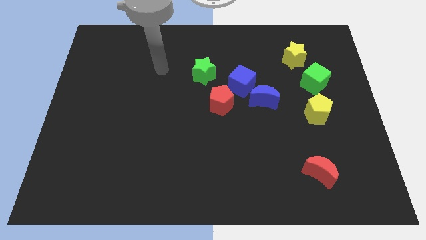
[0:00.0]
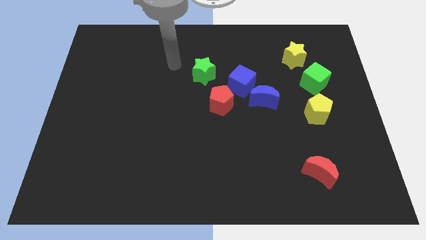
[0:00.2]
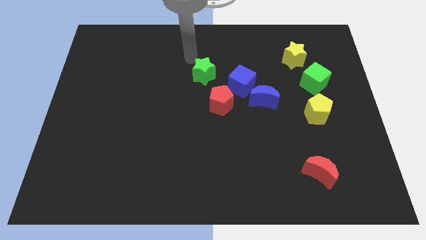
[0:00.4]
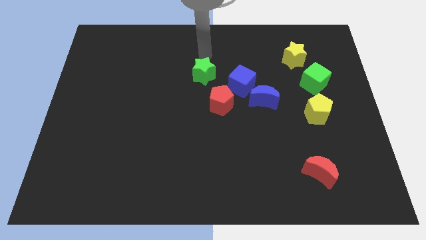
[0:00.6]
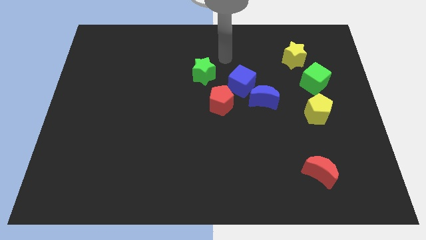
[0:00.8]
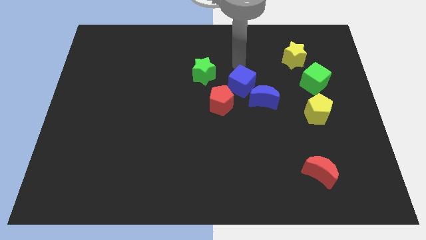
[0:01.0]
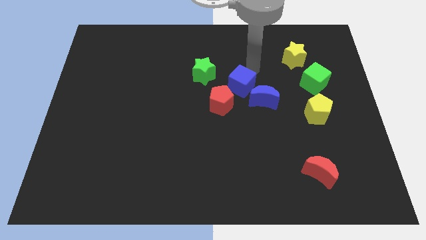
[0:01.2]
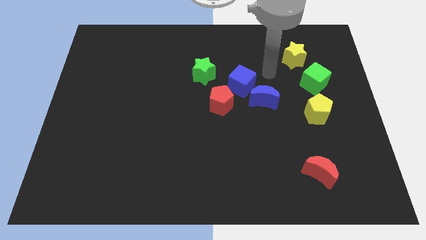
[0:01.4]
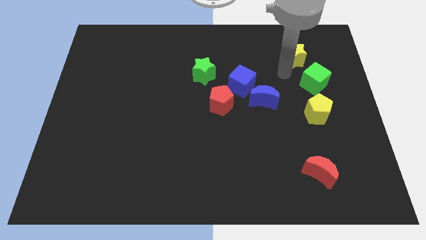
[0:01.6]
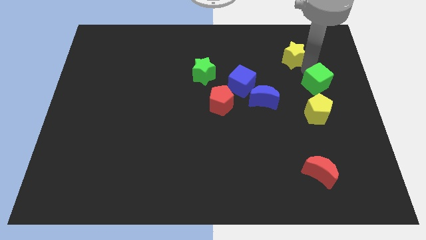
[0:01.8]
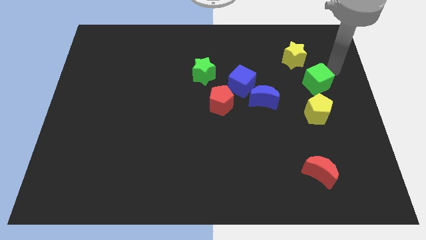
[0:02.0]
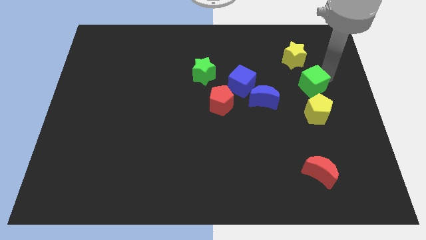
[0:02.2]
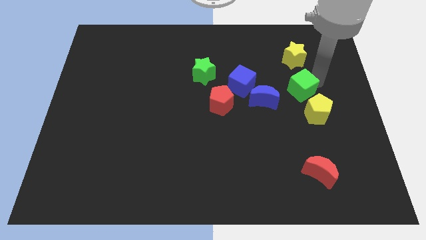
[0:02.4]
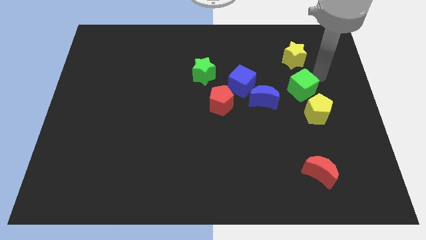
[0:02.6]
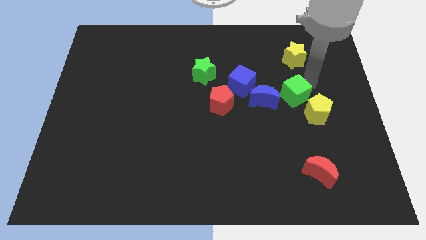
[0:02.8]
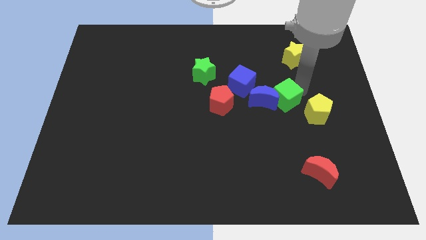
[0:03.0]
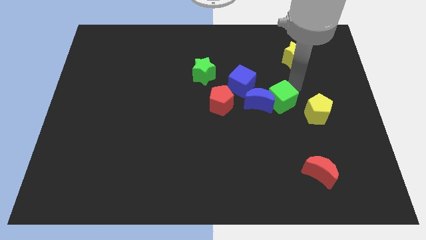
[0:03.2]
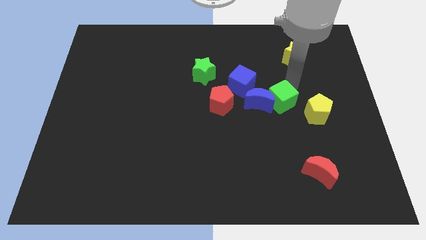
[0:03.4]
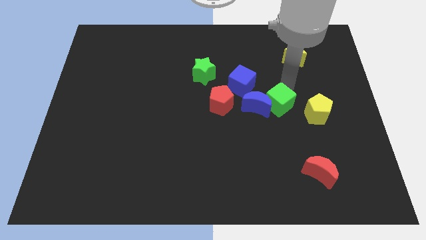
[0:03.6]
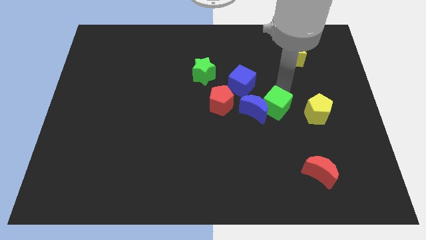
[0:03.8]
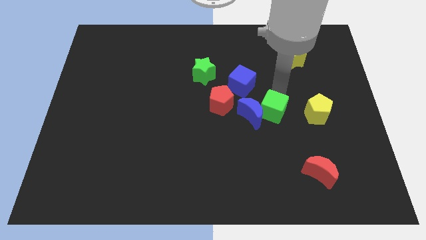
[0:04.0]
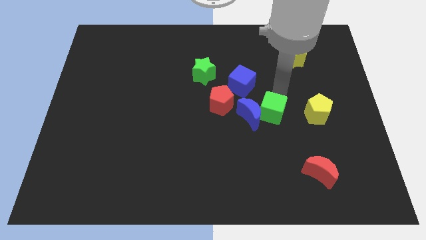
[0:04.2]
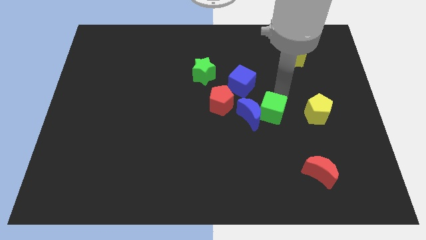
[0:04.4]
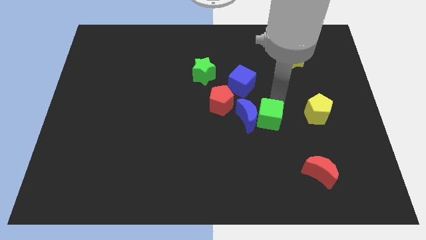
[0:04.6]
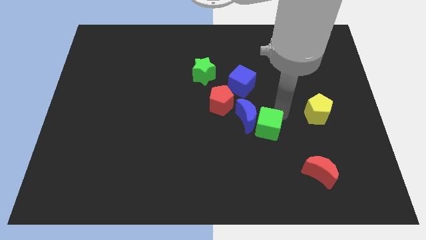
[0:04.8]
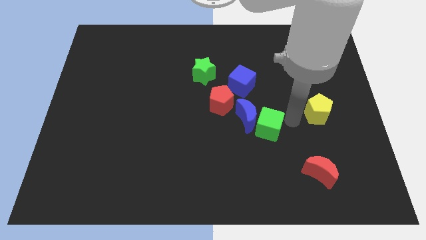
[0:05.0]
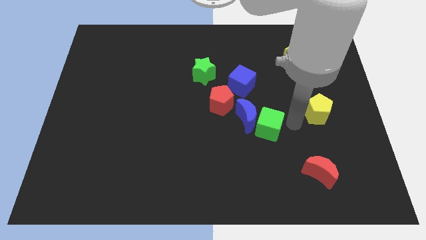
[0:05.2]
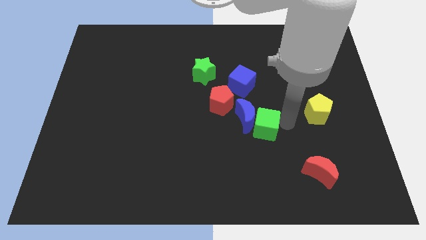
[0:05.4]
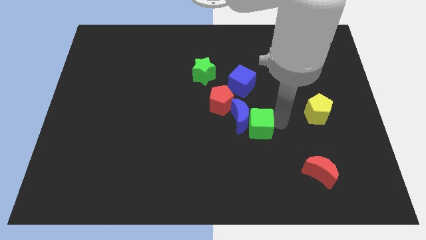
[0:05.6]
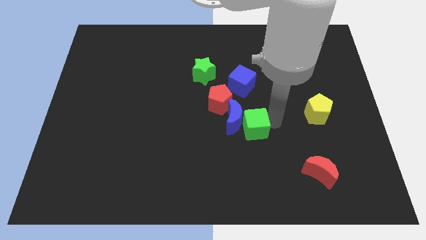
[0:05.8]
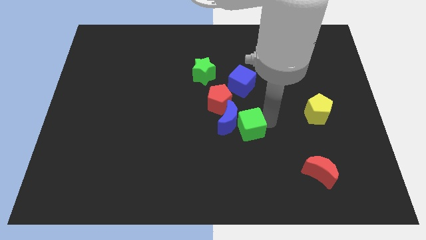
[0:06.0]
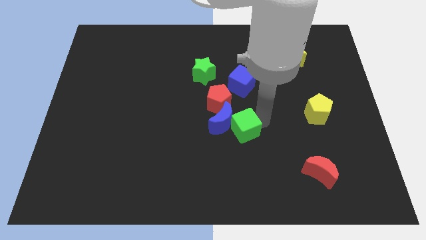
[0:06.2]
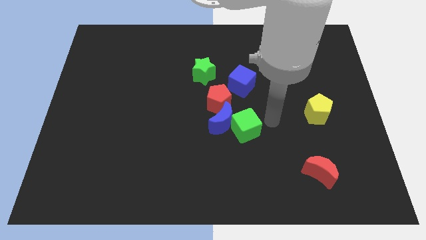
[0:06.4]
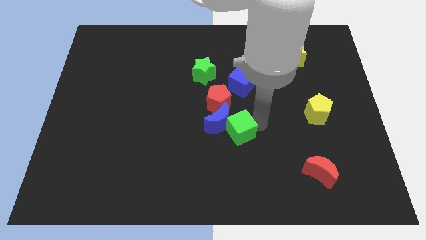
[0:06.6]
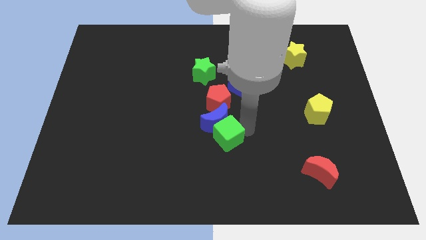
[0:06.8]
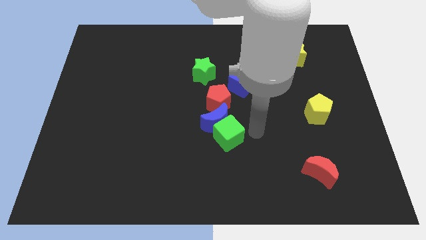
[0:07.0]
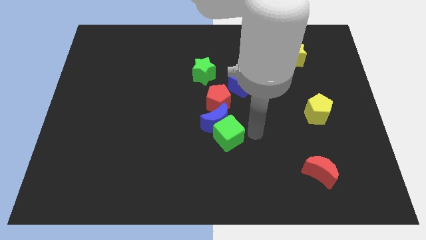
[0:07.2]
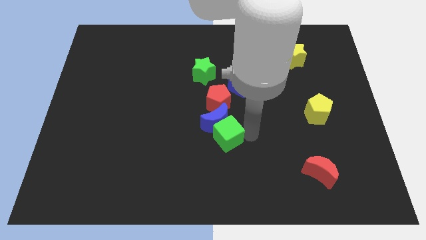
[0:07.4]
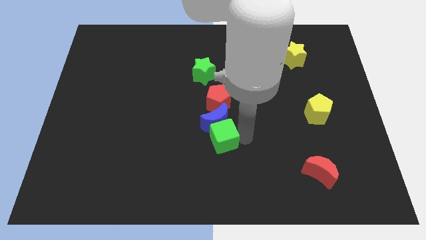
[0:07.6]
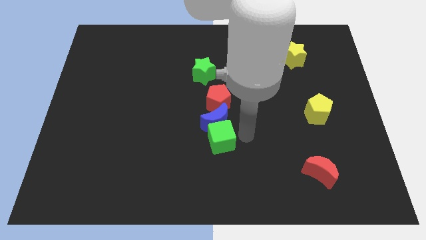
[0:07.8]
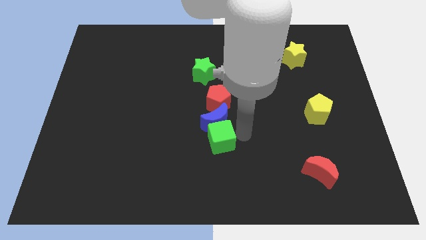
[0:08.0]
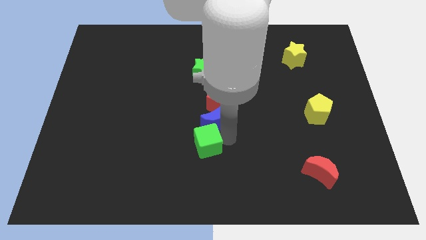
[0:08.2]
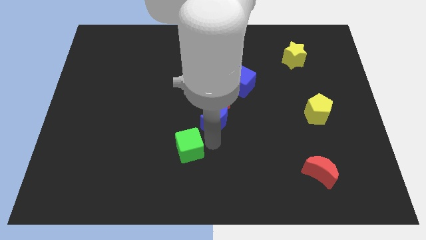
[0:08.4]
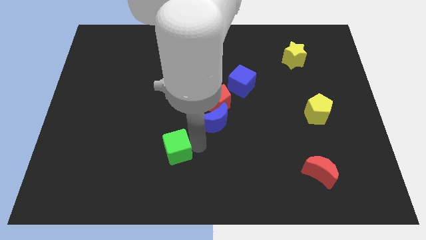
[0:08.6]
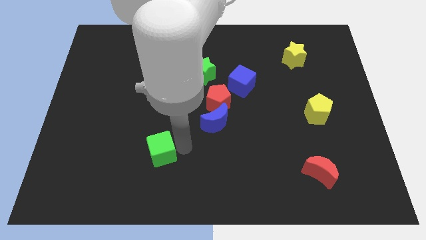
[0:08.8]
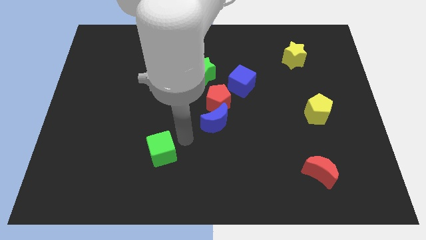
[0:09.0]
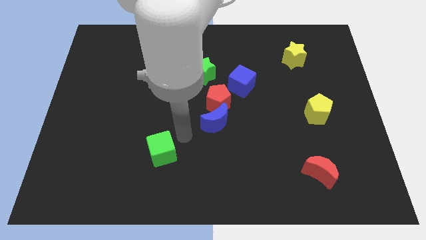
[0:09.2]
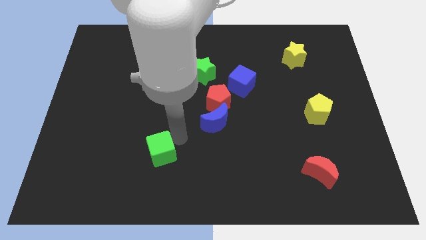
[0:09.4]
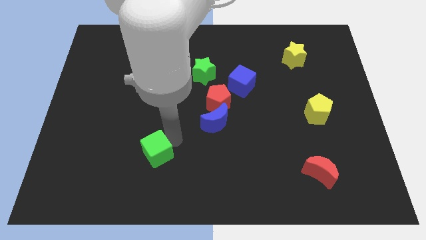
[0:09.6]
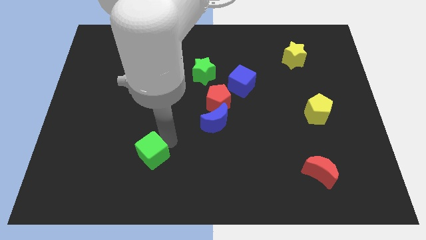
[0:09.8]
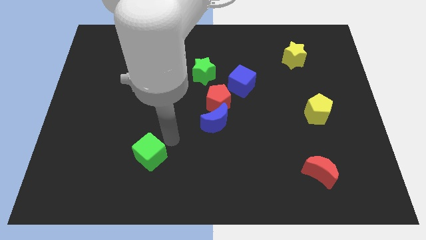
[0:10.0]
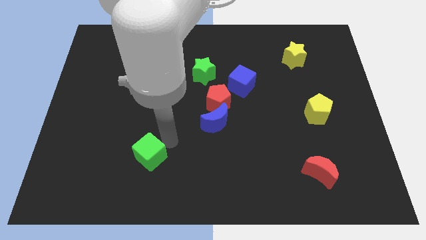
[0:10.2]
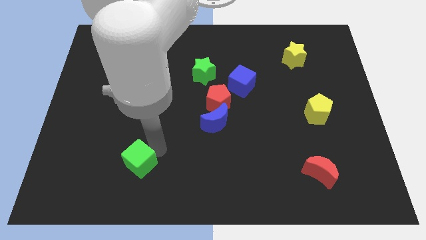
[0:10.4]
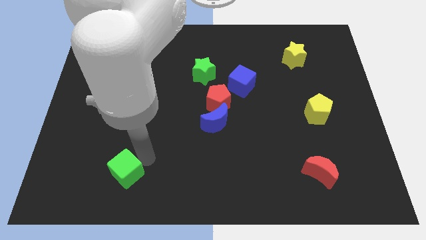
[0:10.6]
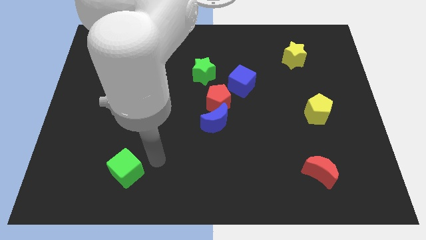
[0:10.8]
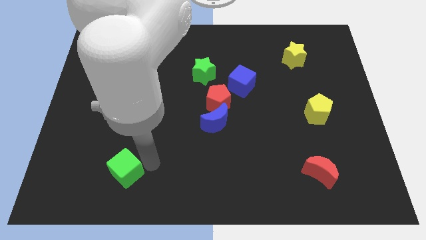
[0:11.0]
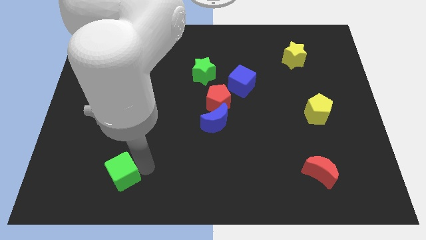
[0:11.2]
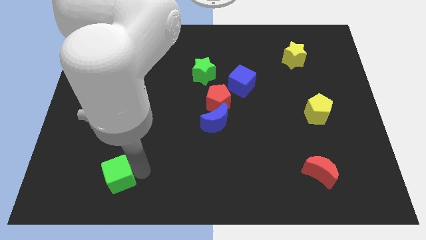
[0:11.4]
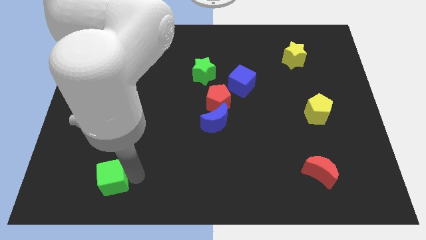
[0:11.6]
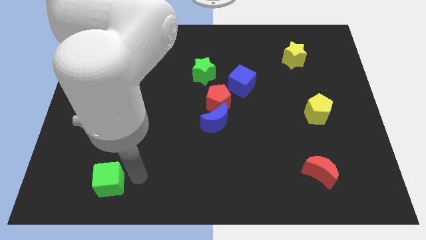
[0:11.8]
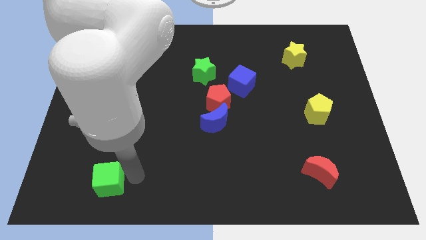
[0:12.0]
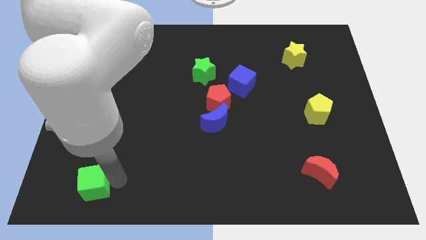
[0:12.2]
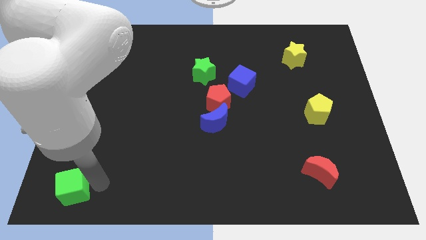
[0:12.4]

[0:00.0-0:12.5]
put the green cube to the bottom left

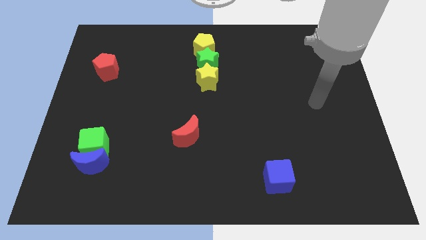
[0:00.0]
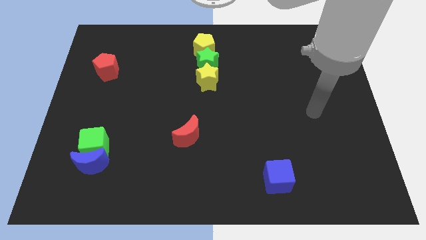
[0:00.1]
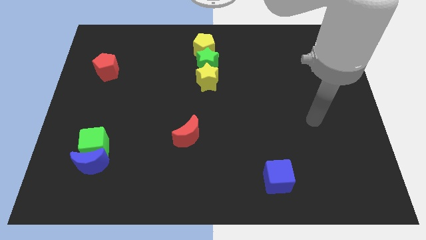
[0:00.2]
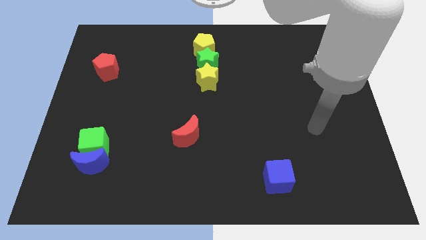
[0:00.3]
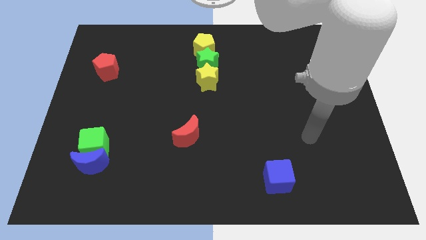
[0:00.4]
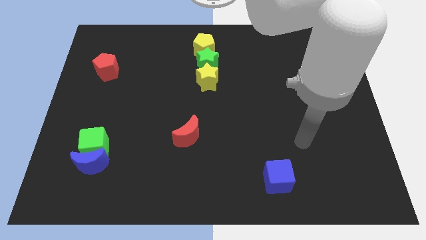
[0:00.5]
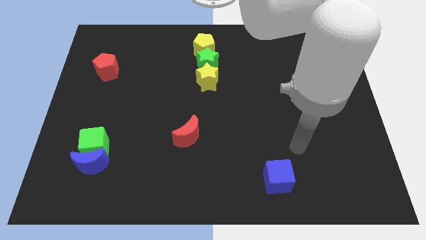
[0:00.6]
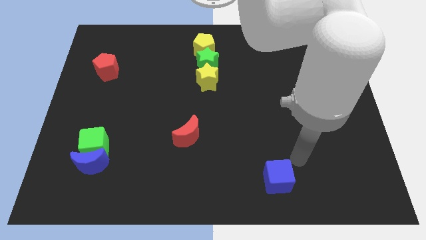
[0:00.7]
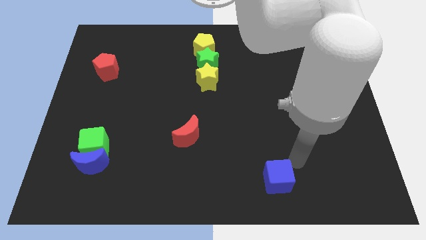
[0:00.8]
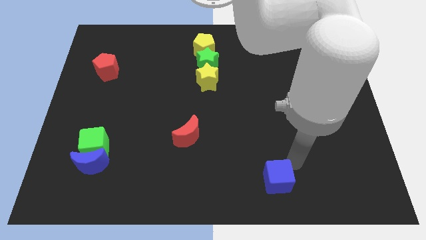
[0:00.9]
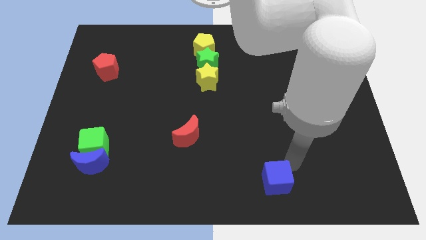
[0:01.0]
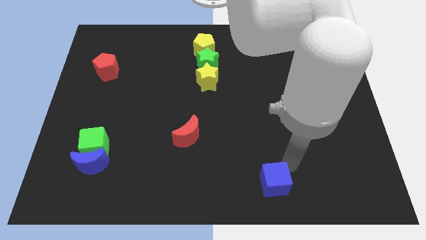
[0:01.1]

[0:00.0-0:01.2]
put the blue cube to the bottom
